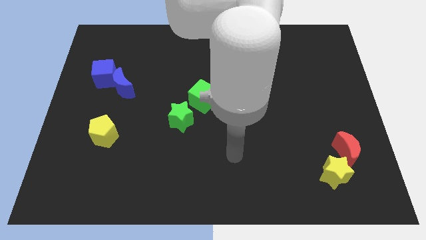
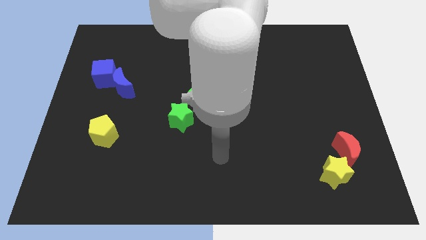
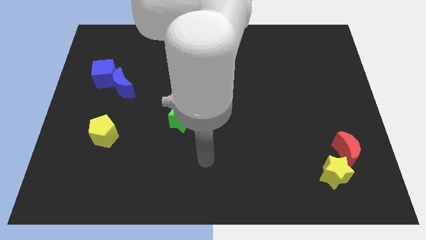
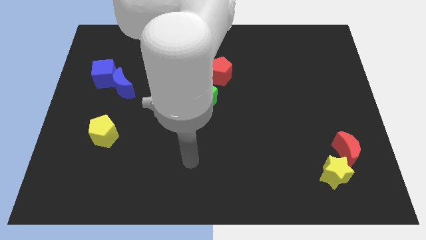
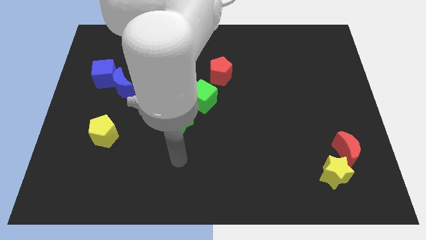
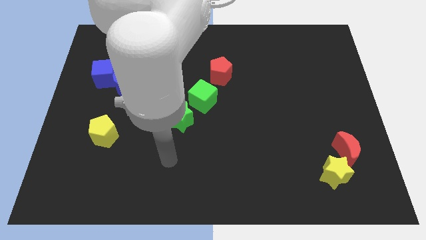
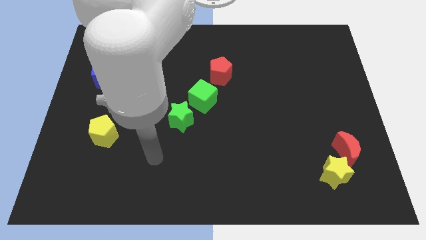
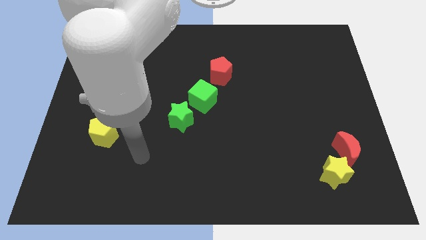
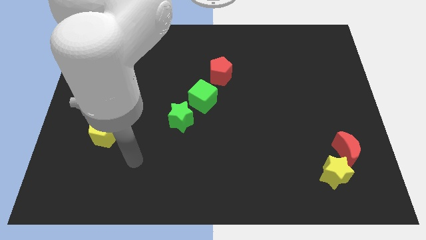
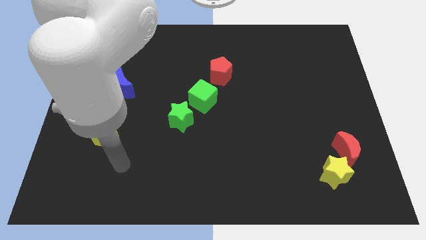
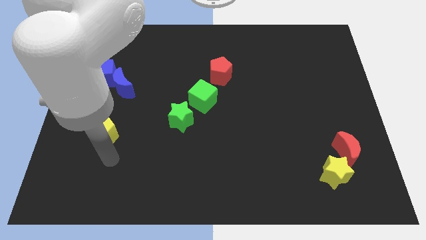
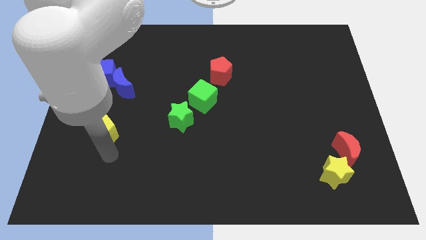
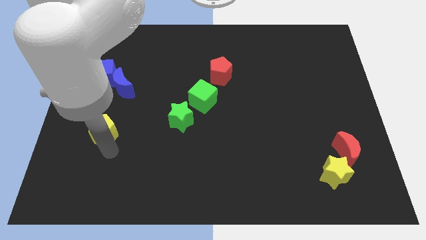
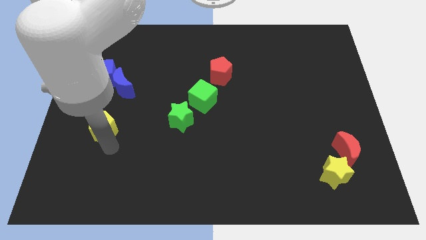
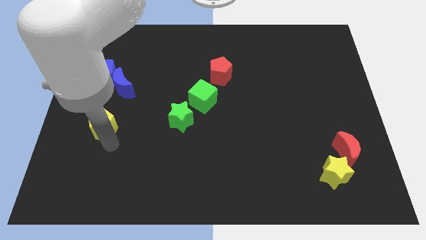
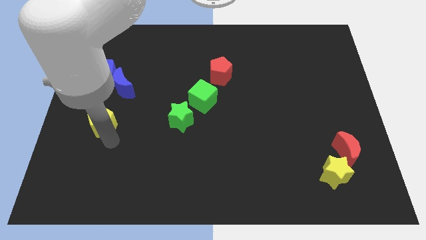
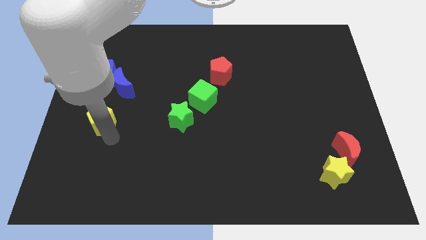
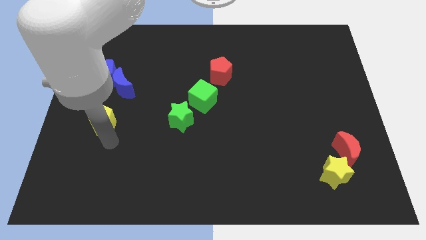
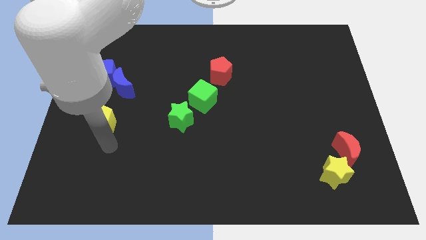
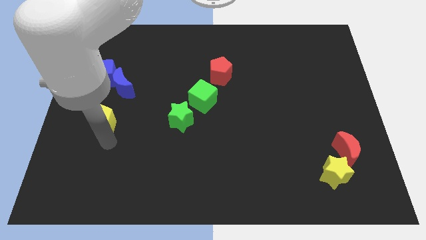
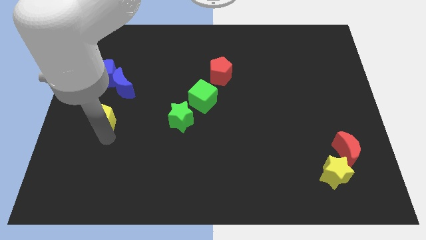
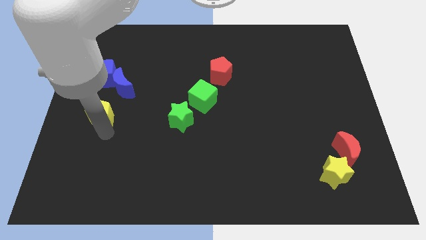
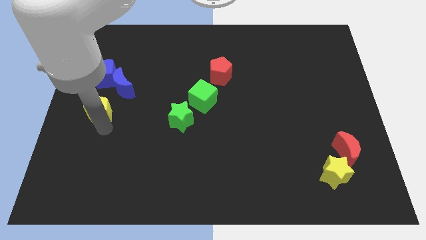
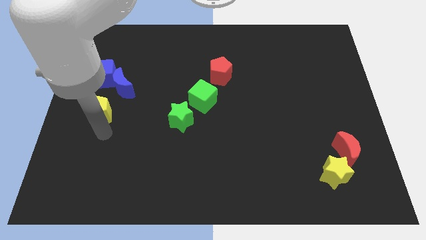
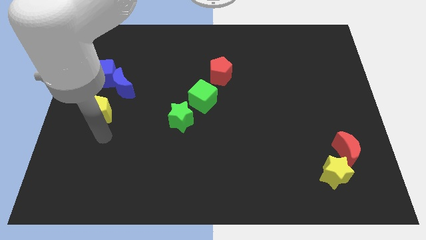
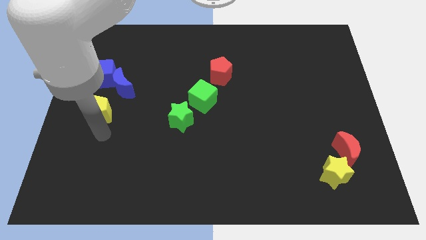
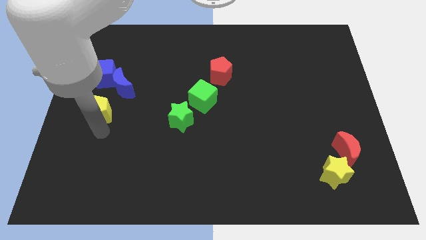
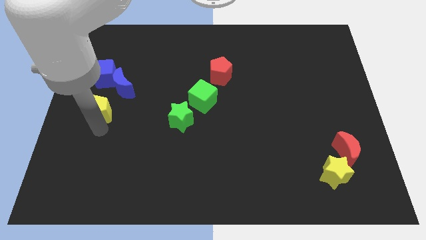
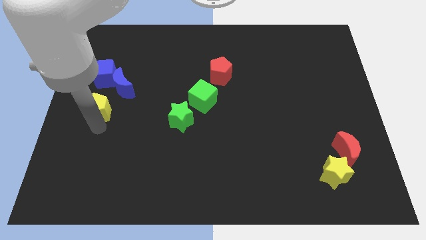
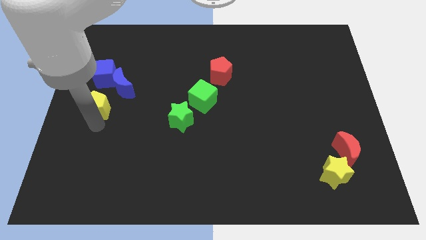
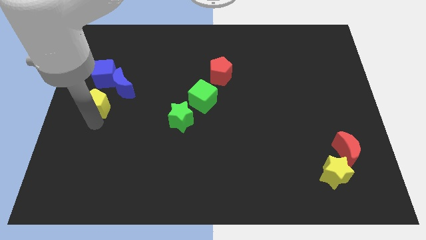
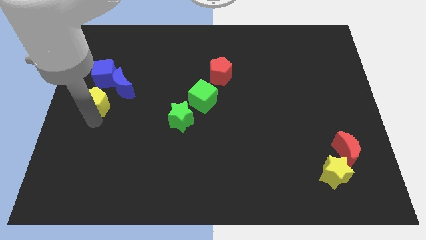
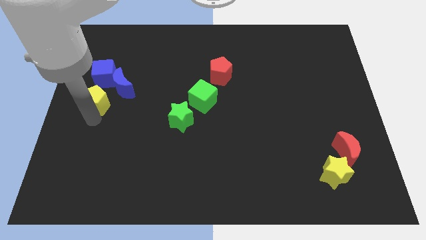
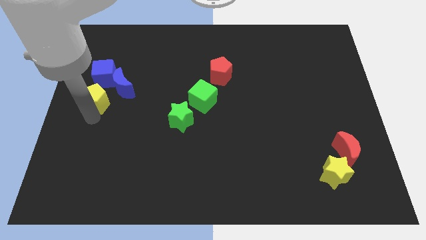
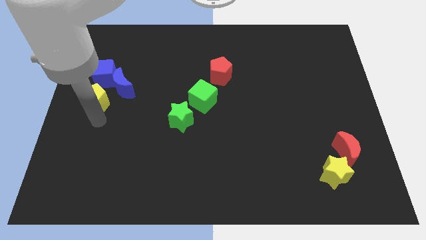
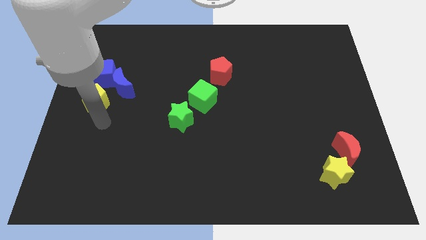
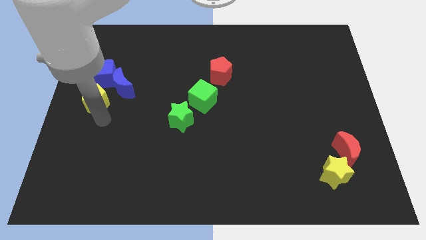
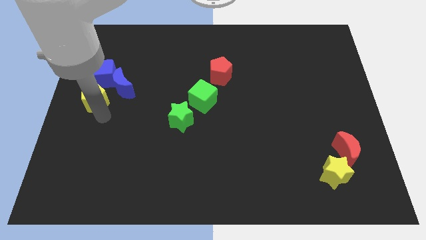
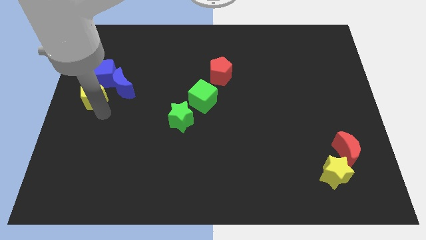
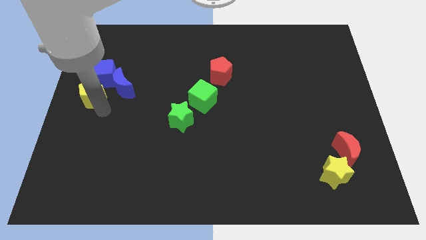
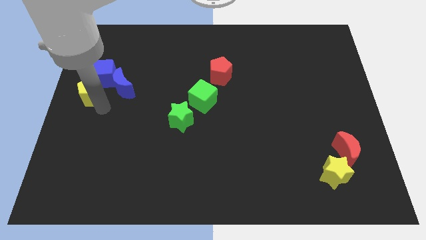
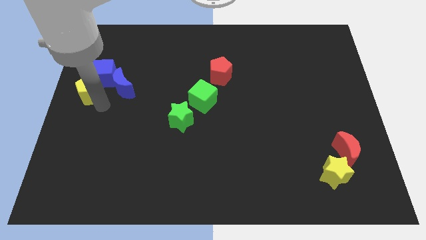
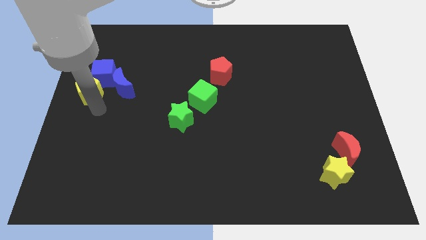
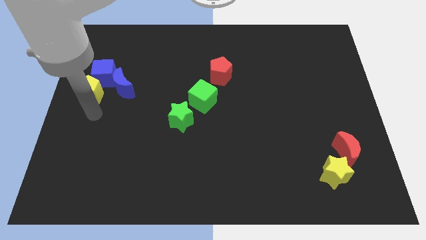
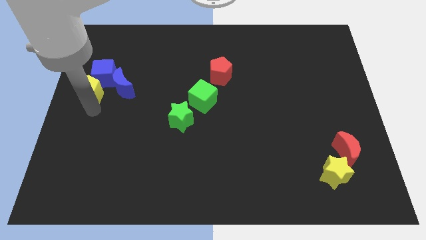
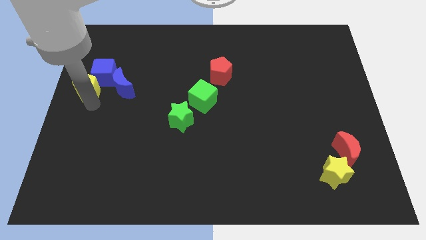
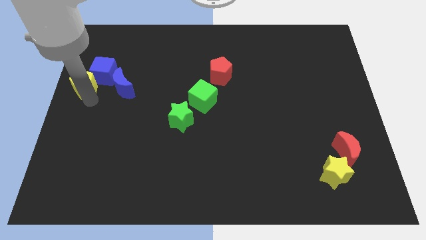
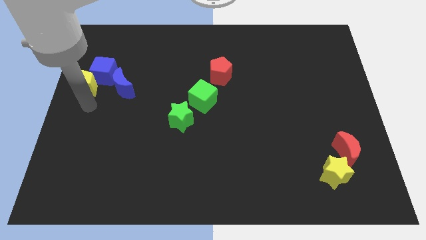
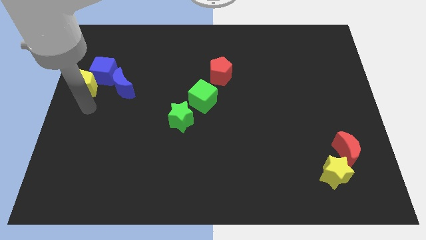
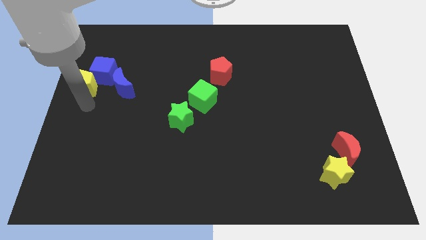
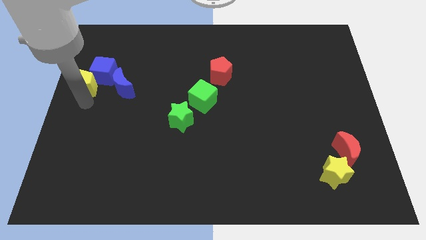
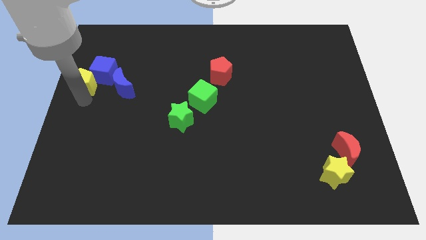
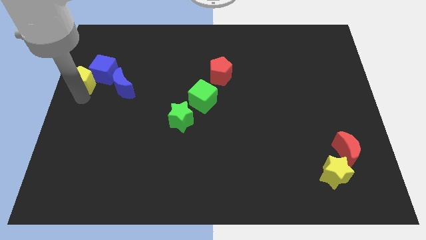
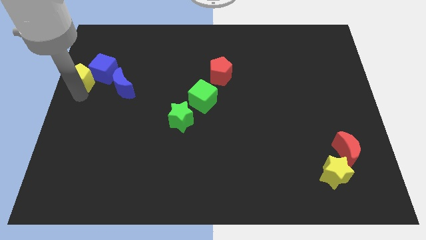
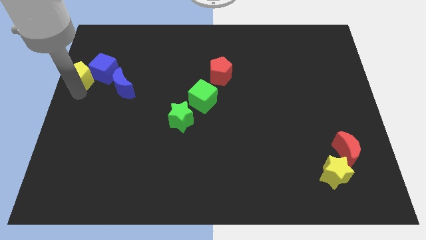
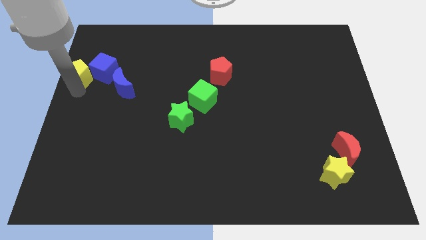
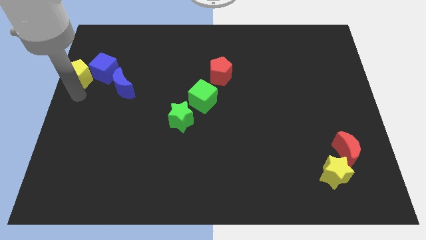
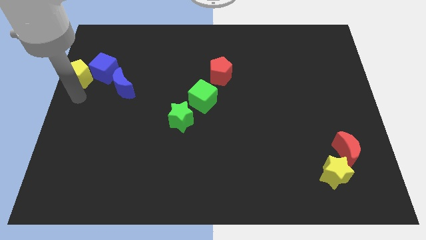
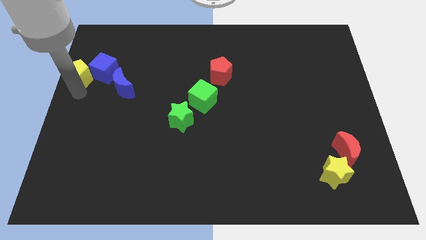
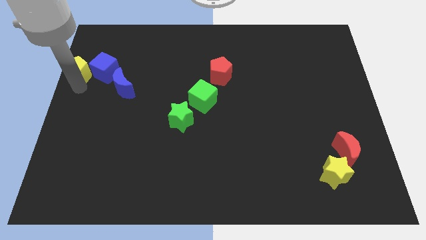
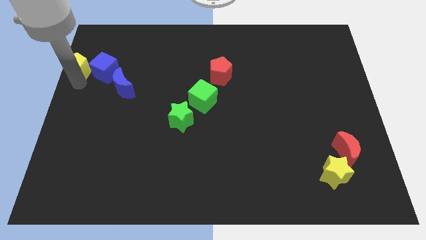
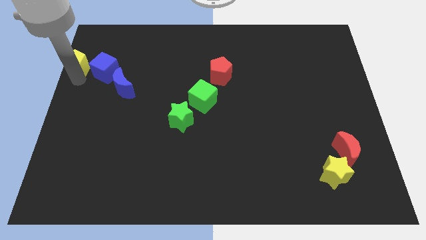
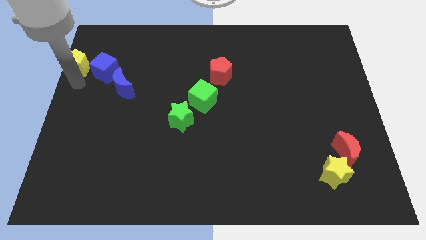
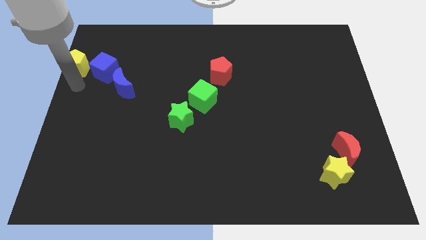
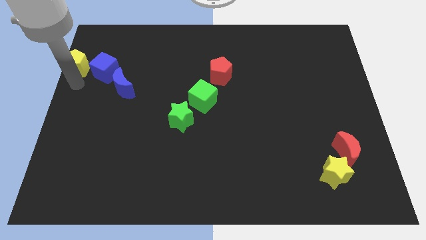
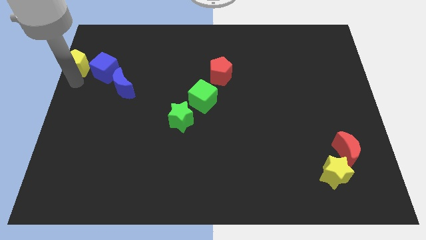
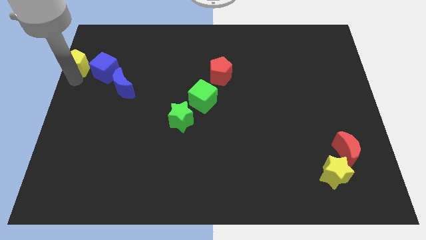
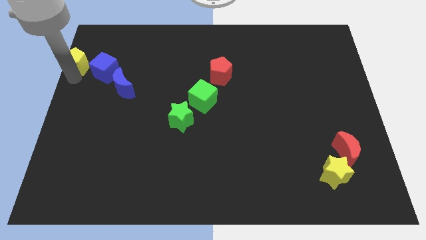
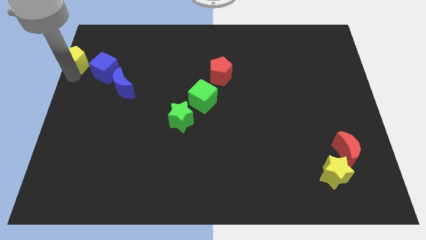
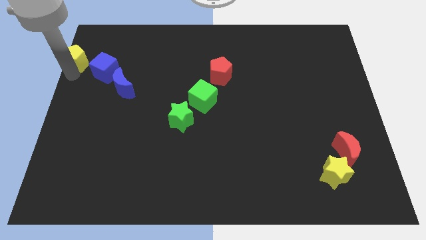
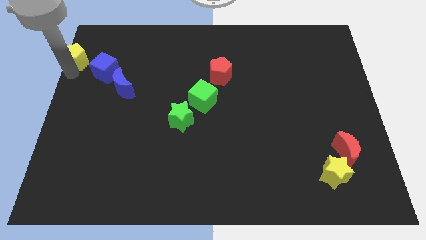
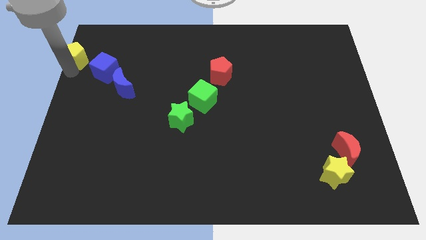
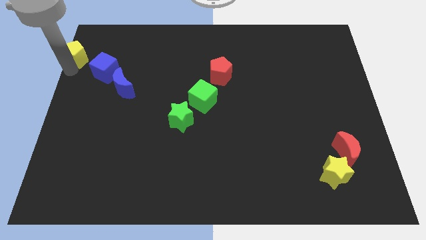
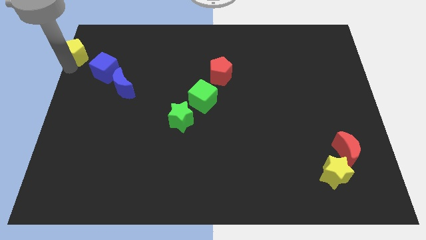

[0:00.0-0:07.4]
push the yellow pentagon to the top left of the board
